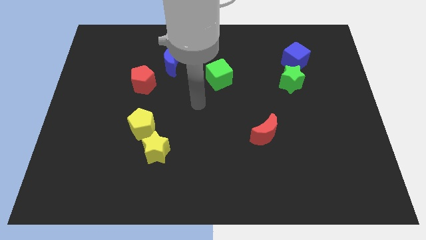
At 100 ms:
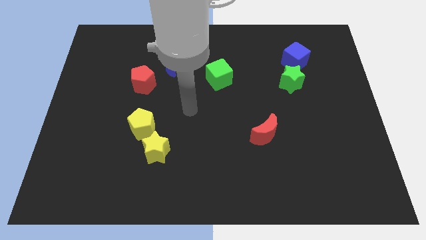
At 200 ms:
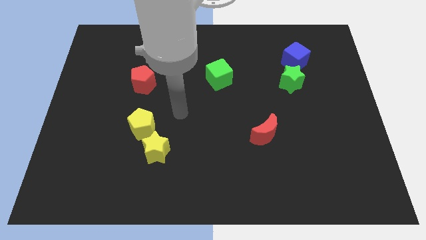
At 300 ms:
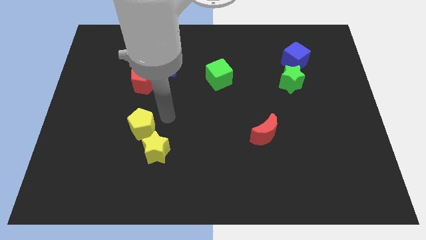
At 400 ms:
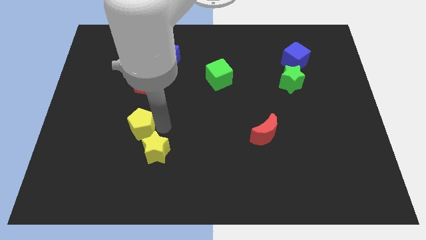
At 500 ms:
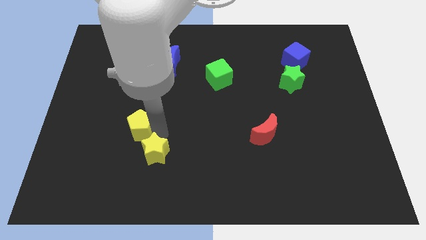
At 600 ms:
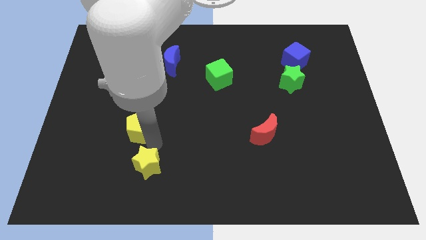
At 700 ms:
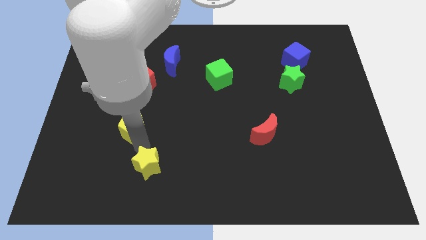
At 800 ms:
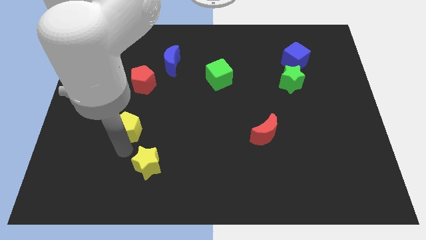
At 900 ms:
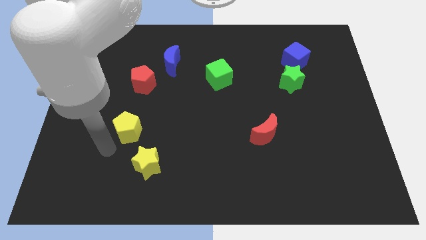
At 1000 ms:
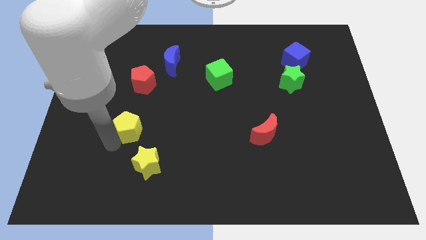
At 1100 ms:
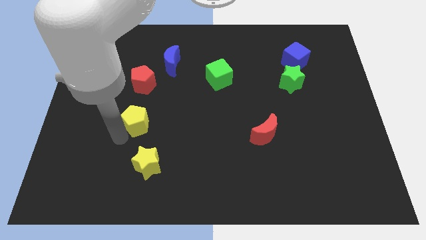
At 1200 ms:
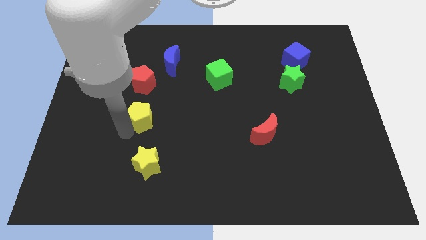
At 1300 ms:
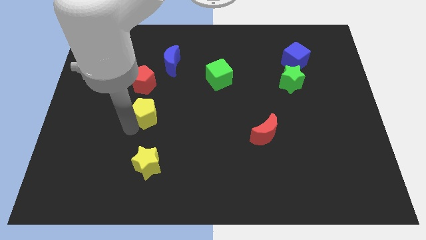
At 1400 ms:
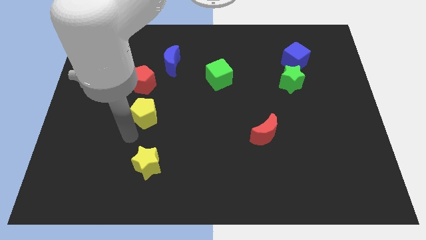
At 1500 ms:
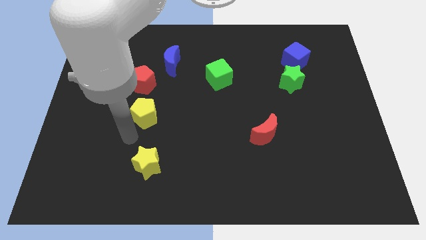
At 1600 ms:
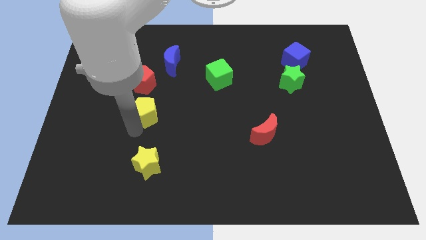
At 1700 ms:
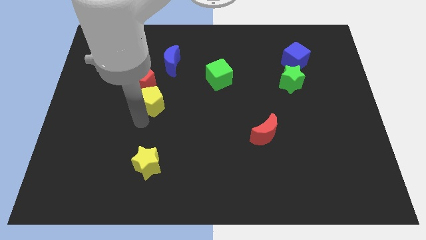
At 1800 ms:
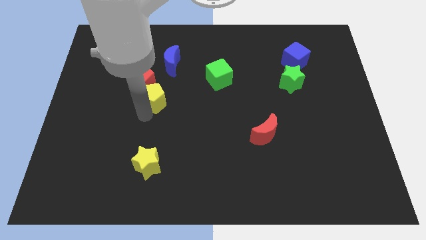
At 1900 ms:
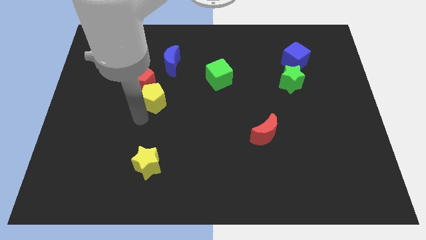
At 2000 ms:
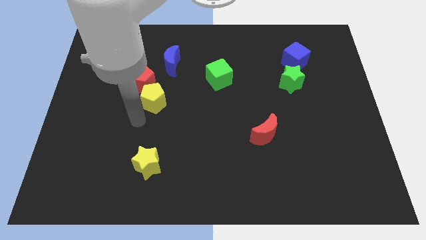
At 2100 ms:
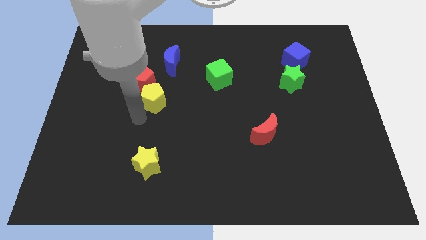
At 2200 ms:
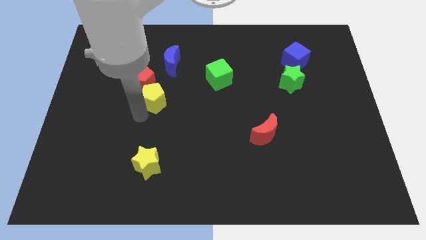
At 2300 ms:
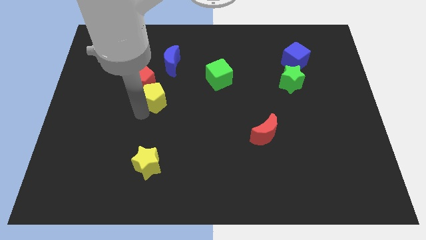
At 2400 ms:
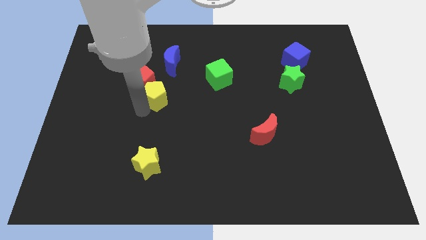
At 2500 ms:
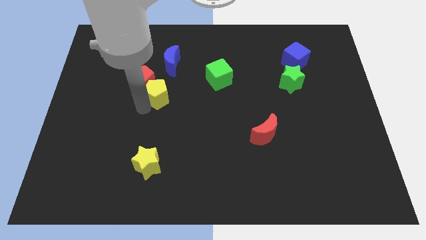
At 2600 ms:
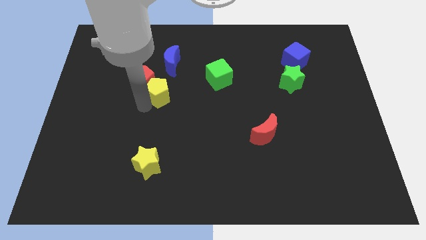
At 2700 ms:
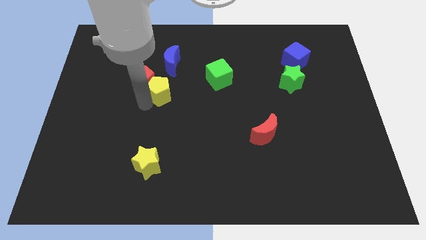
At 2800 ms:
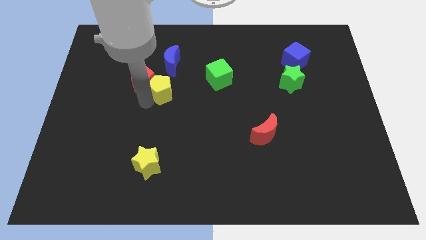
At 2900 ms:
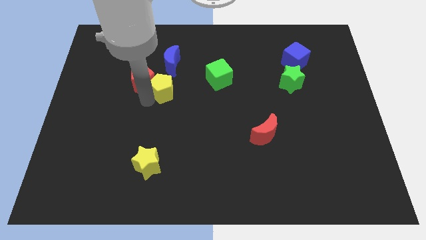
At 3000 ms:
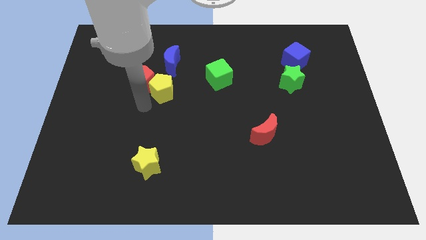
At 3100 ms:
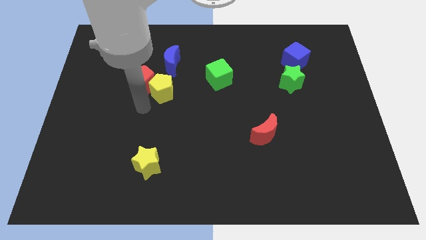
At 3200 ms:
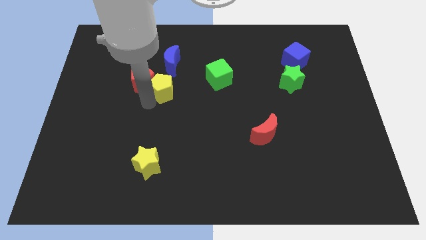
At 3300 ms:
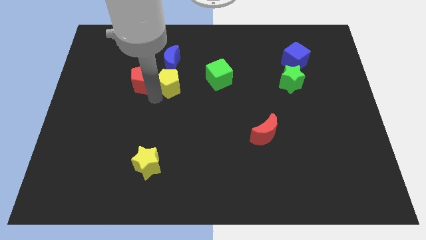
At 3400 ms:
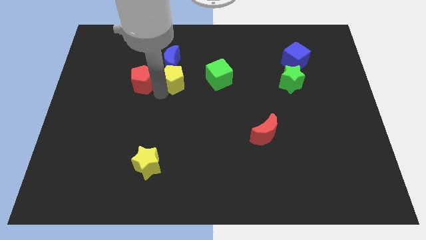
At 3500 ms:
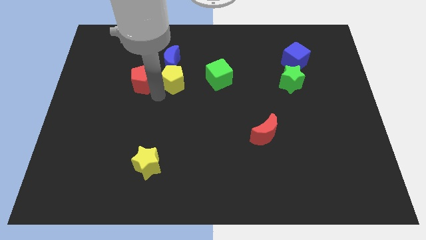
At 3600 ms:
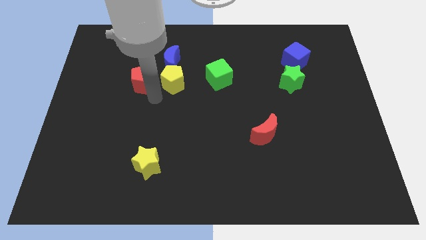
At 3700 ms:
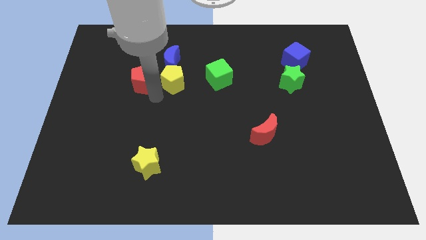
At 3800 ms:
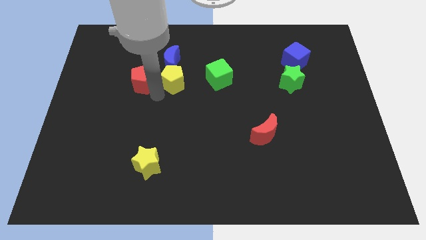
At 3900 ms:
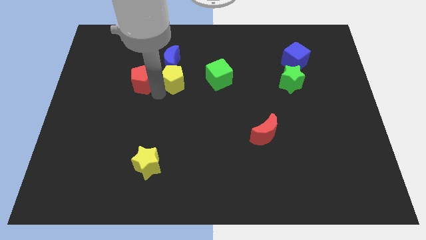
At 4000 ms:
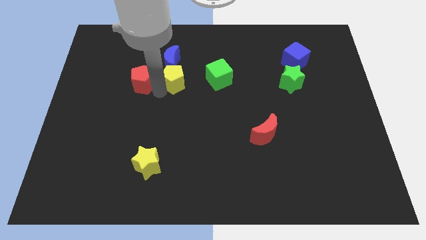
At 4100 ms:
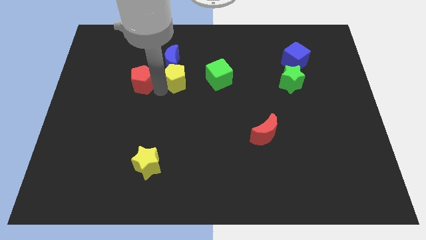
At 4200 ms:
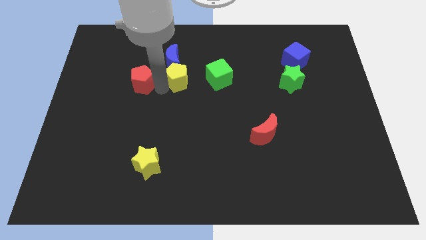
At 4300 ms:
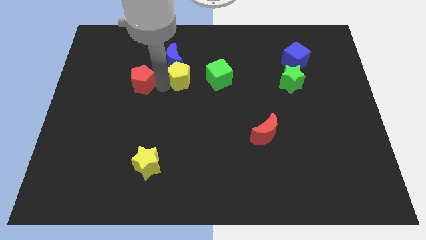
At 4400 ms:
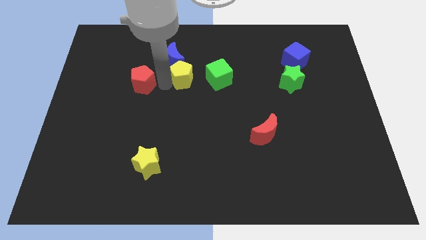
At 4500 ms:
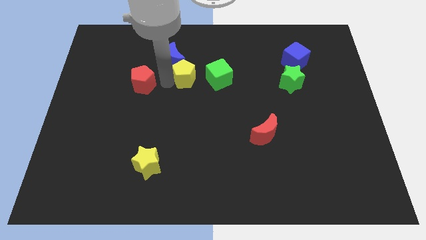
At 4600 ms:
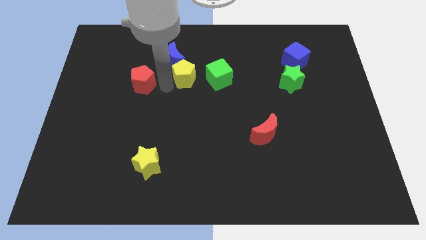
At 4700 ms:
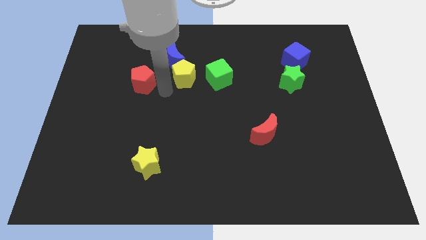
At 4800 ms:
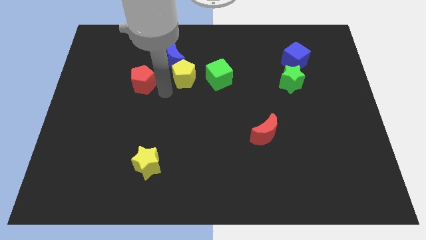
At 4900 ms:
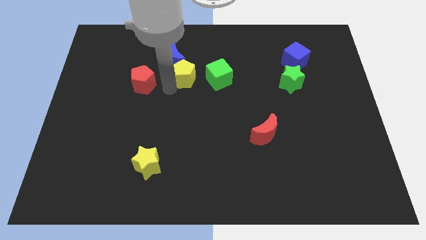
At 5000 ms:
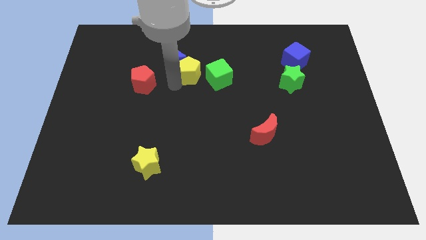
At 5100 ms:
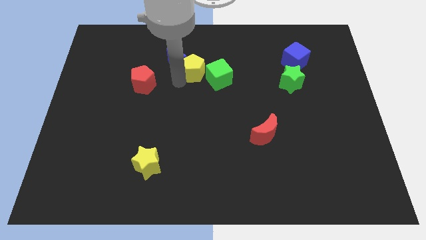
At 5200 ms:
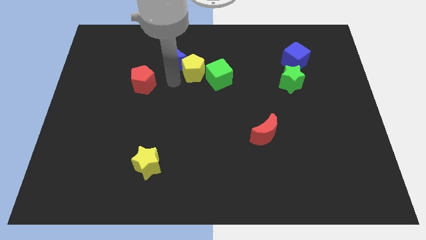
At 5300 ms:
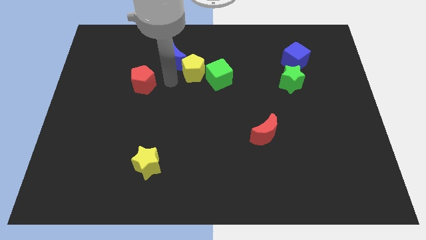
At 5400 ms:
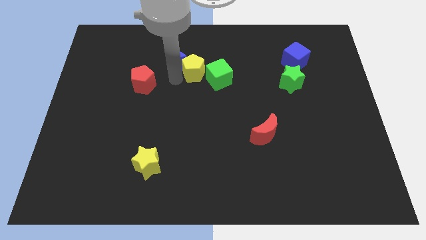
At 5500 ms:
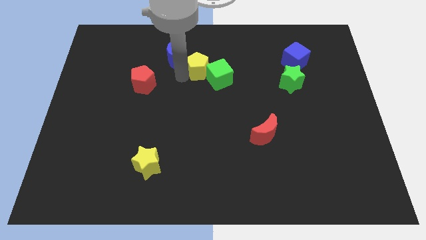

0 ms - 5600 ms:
move the yellow pentagon up and to the right diagonally

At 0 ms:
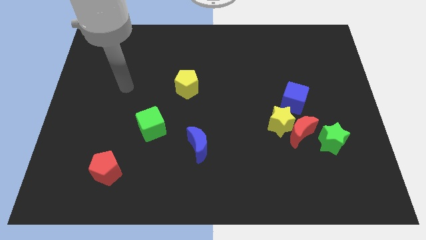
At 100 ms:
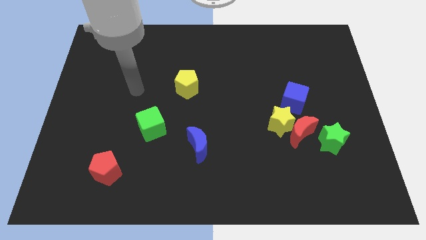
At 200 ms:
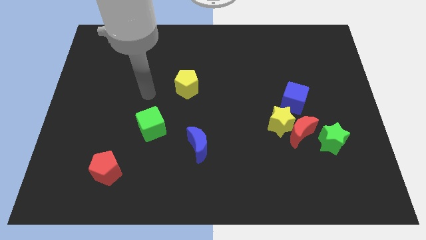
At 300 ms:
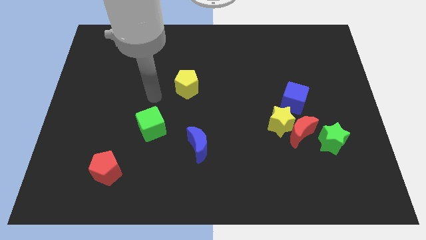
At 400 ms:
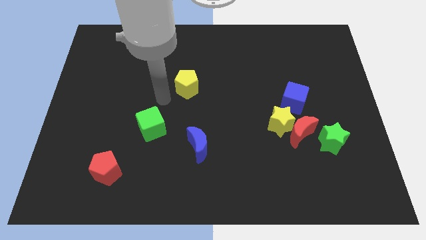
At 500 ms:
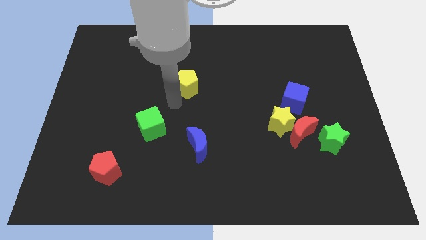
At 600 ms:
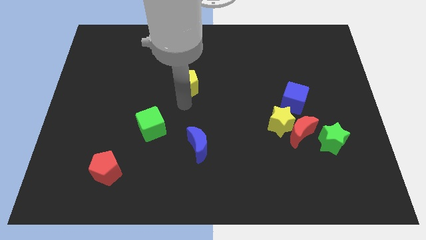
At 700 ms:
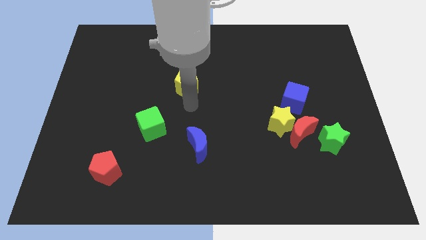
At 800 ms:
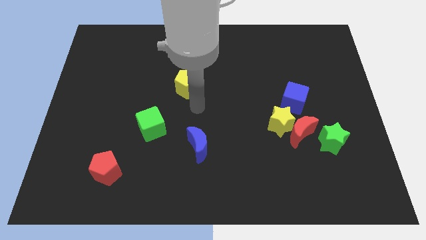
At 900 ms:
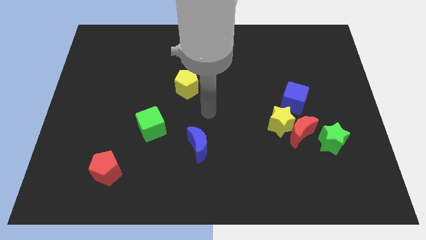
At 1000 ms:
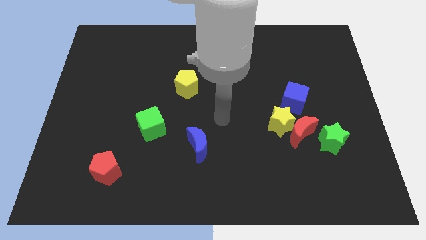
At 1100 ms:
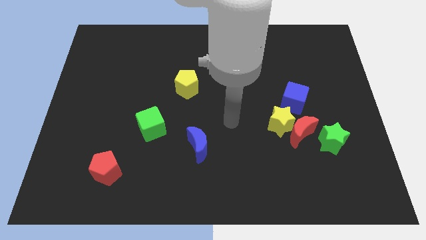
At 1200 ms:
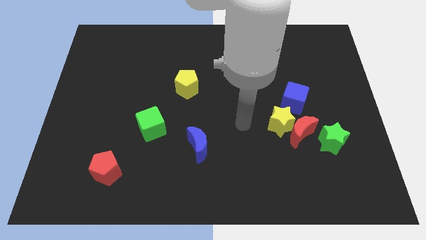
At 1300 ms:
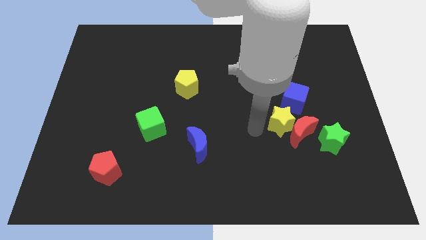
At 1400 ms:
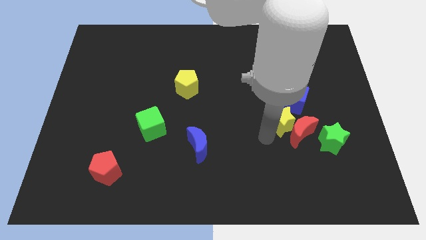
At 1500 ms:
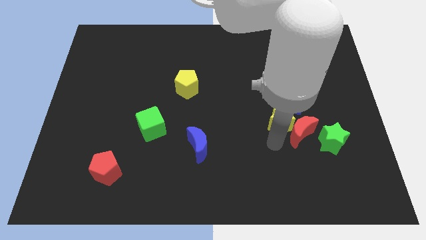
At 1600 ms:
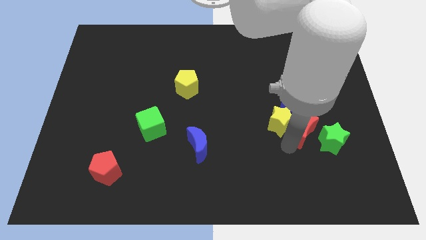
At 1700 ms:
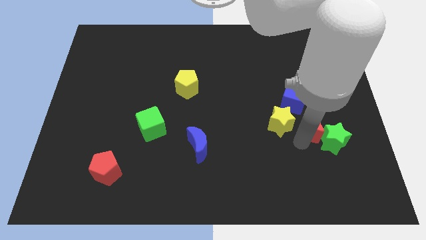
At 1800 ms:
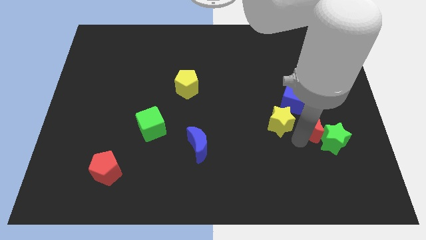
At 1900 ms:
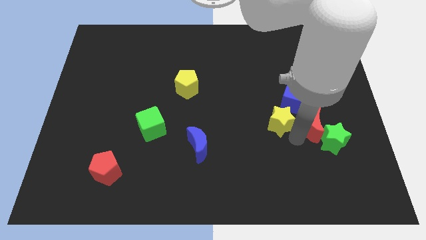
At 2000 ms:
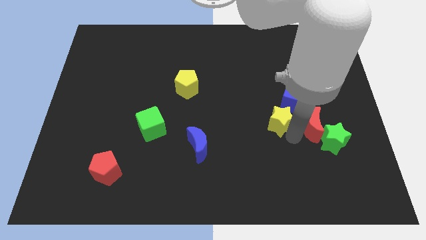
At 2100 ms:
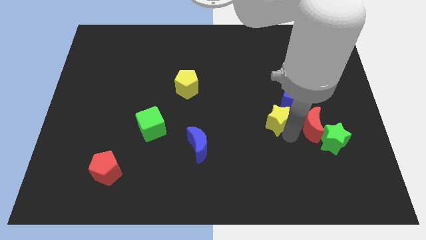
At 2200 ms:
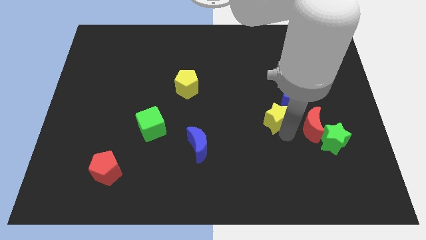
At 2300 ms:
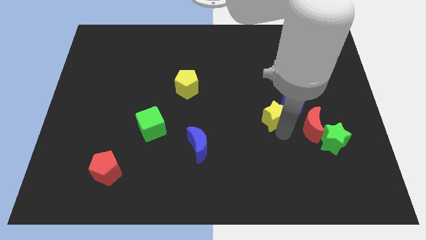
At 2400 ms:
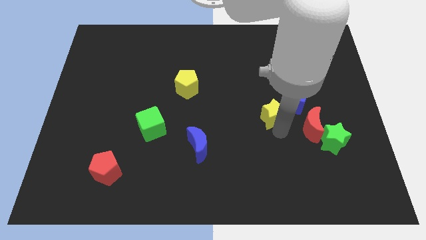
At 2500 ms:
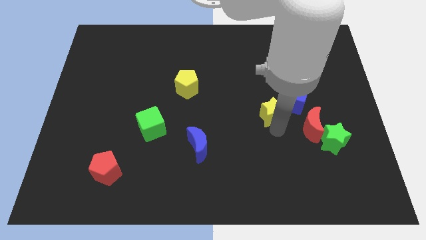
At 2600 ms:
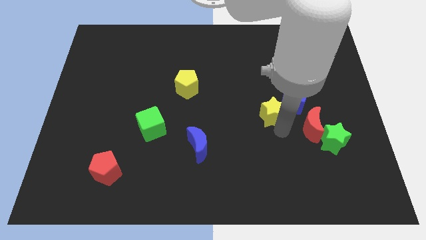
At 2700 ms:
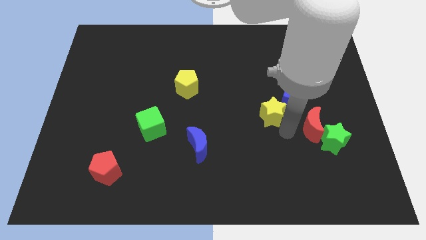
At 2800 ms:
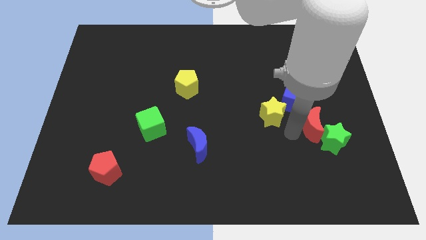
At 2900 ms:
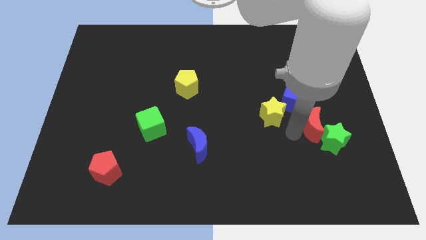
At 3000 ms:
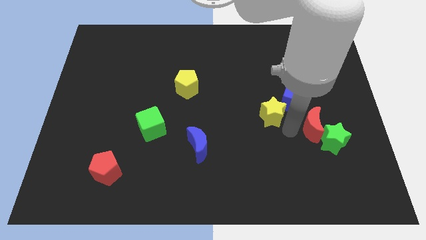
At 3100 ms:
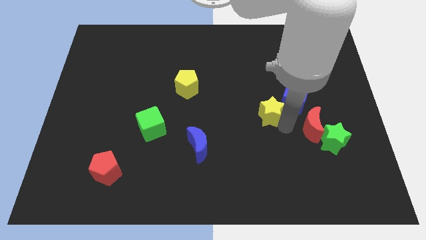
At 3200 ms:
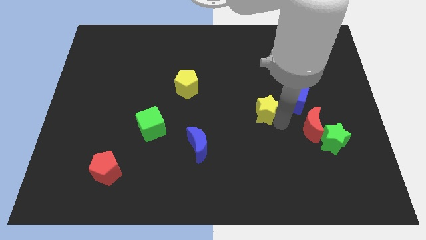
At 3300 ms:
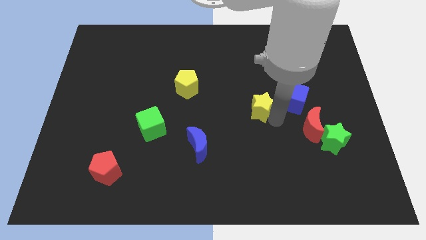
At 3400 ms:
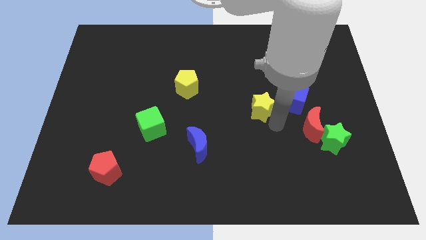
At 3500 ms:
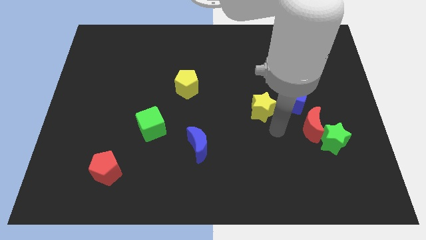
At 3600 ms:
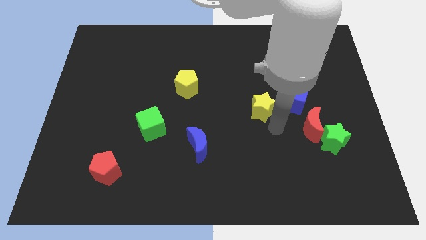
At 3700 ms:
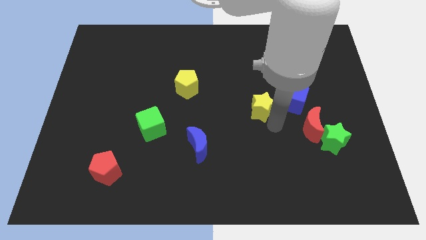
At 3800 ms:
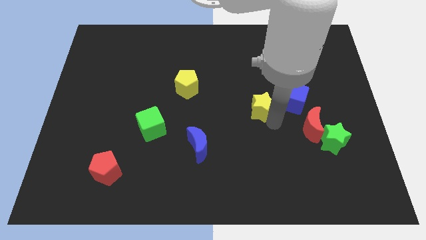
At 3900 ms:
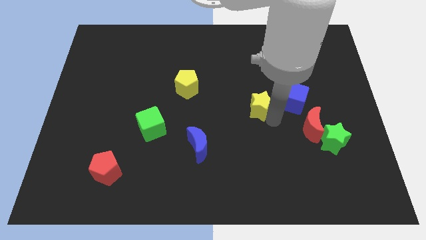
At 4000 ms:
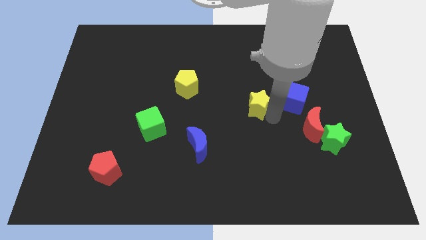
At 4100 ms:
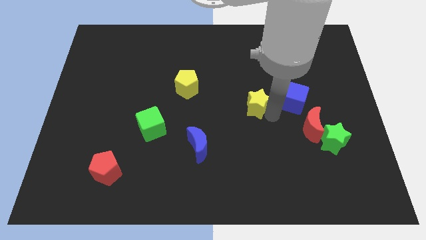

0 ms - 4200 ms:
push the yellow star a little bit upwards and left diagonally
